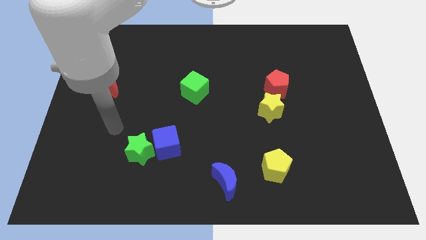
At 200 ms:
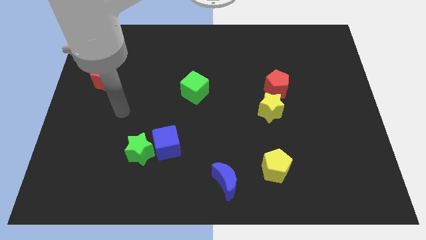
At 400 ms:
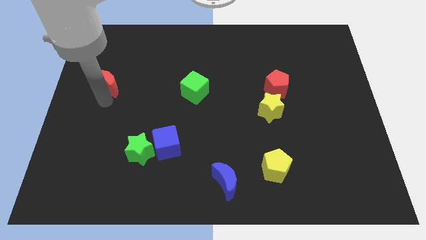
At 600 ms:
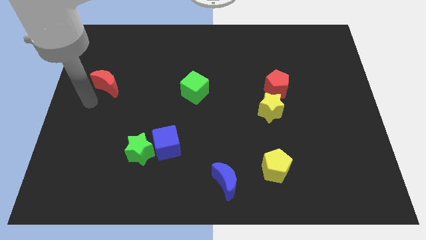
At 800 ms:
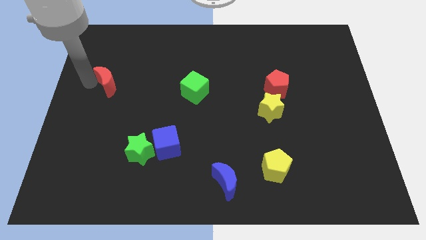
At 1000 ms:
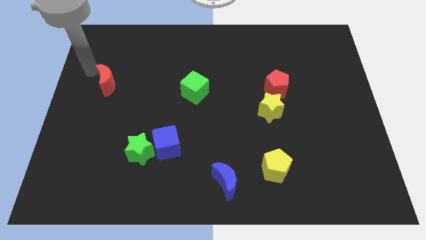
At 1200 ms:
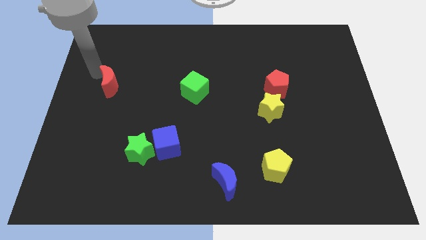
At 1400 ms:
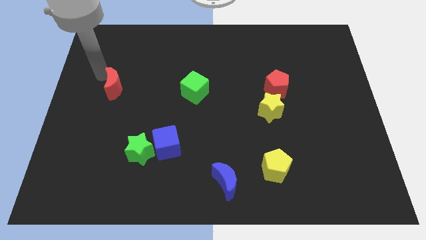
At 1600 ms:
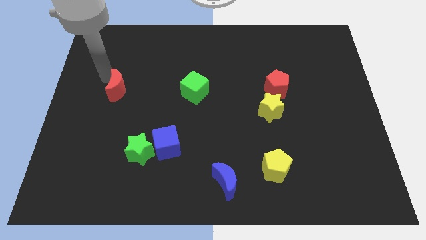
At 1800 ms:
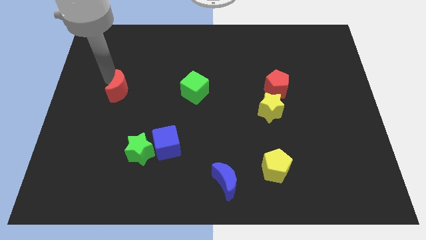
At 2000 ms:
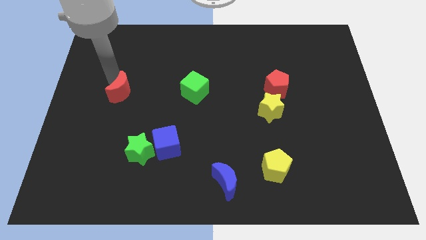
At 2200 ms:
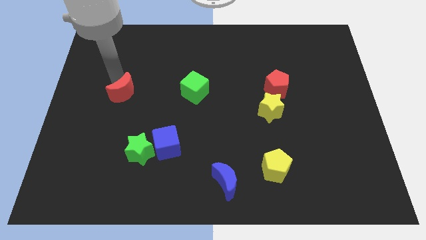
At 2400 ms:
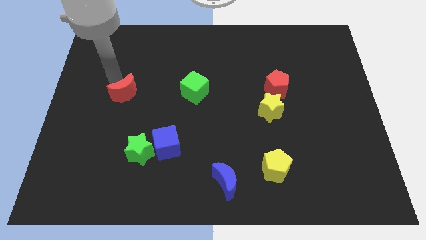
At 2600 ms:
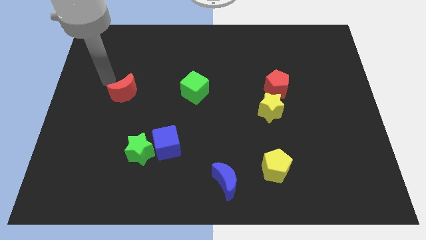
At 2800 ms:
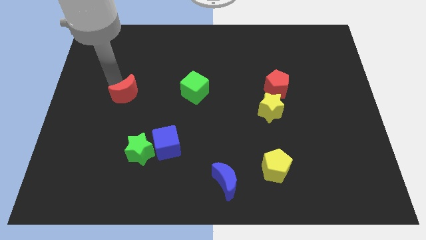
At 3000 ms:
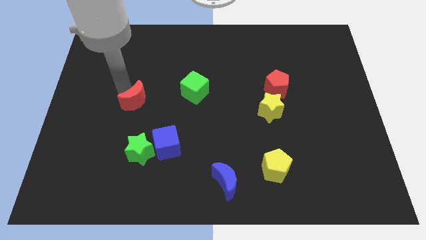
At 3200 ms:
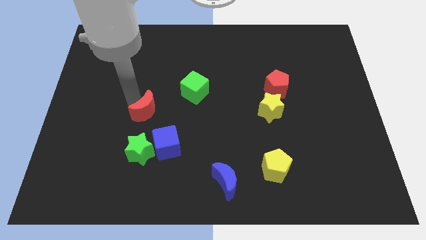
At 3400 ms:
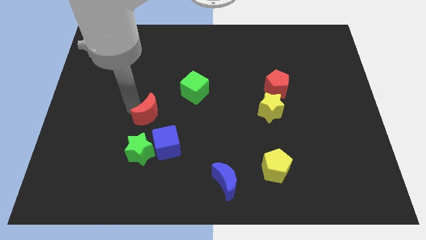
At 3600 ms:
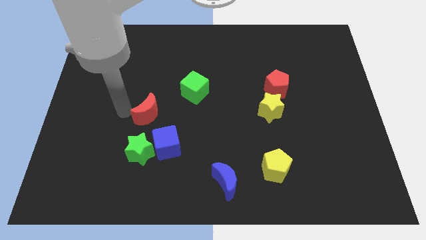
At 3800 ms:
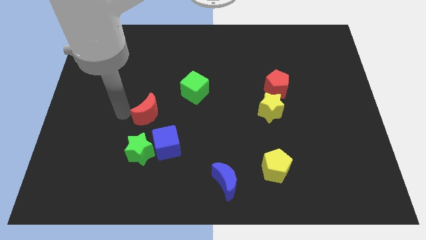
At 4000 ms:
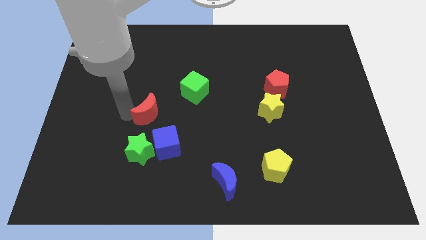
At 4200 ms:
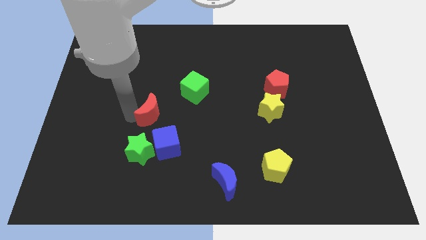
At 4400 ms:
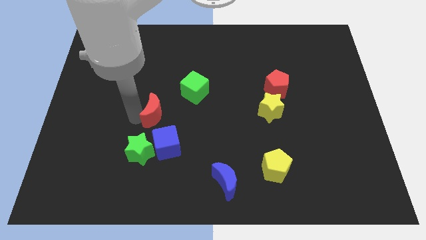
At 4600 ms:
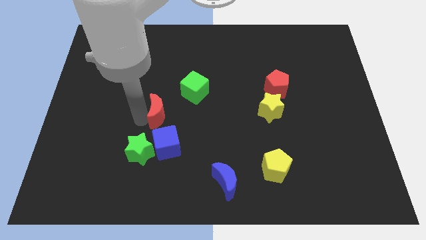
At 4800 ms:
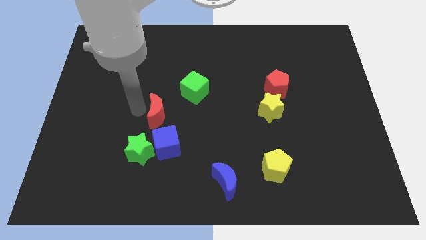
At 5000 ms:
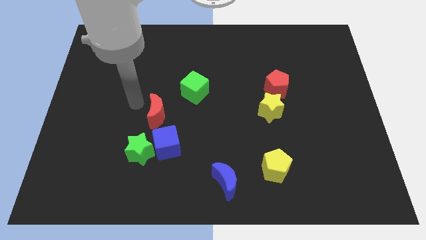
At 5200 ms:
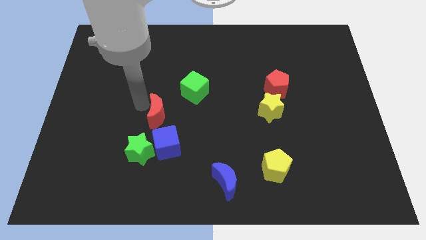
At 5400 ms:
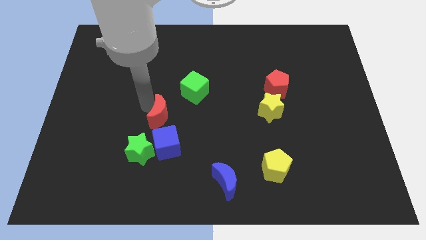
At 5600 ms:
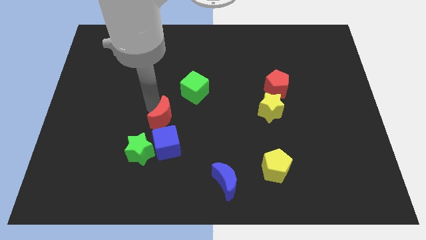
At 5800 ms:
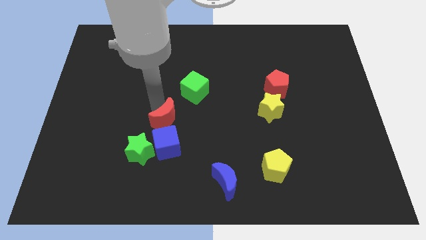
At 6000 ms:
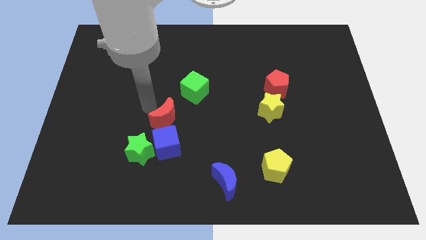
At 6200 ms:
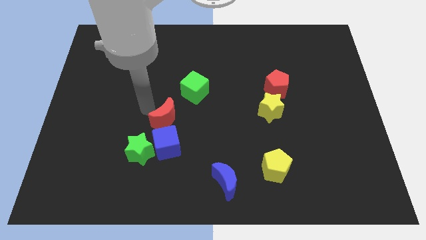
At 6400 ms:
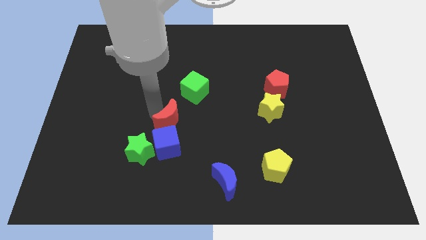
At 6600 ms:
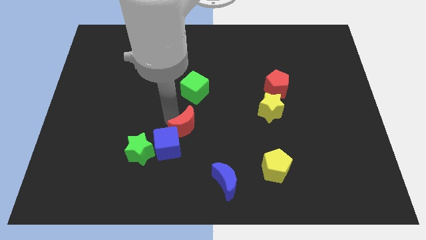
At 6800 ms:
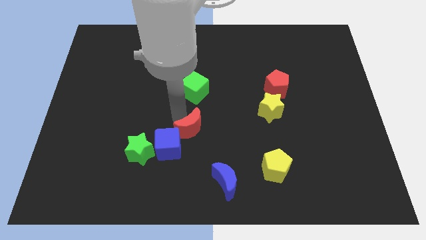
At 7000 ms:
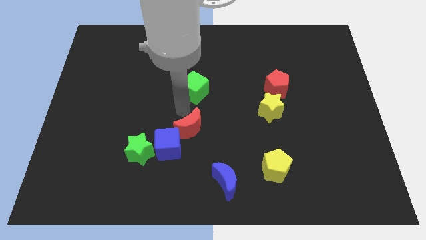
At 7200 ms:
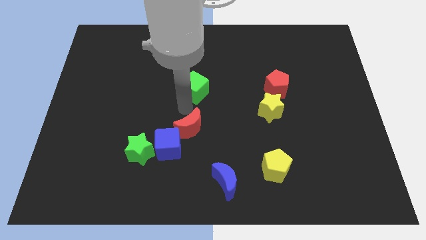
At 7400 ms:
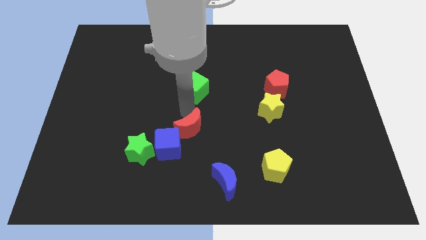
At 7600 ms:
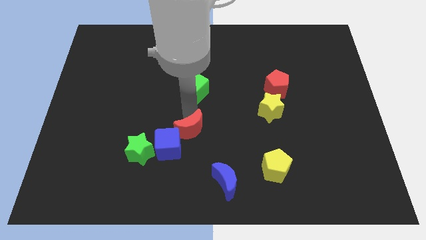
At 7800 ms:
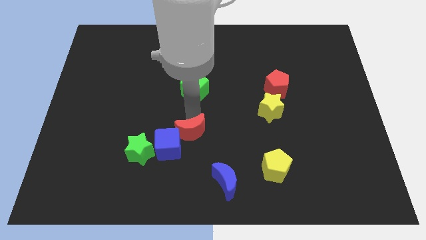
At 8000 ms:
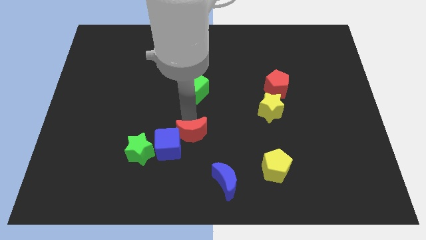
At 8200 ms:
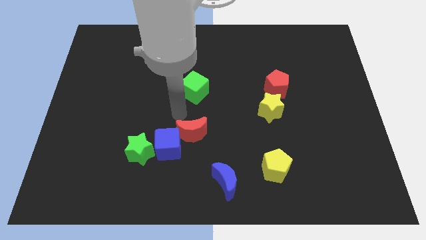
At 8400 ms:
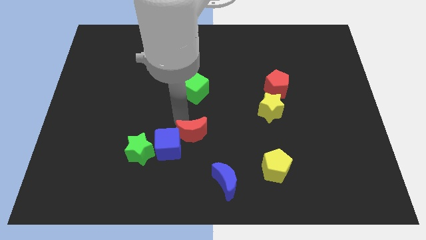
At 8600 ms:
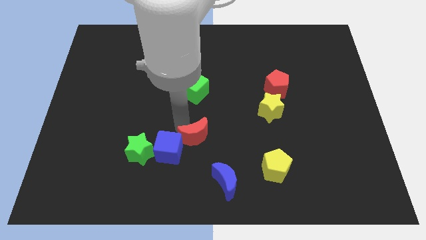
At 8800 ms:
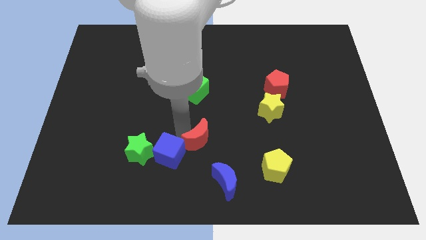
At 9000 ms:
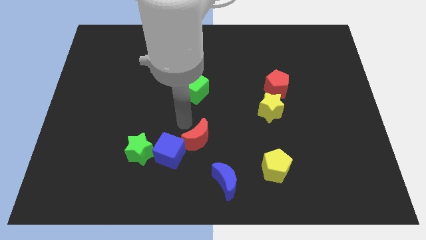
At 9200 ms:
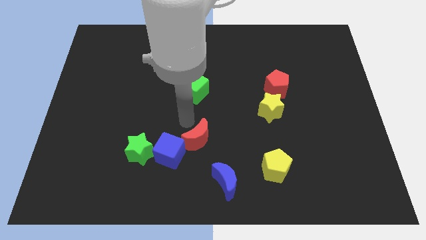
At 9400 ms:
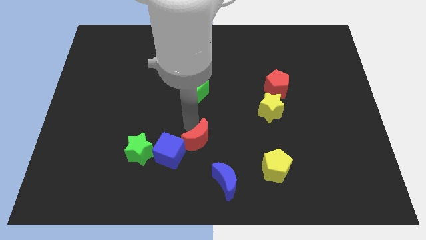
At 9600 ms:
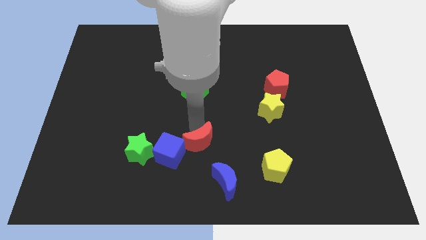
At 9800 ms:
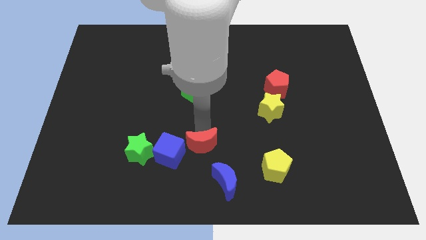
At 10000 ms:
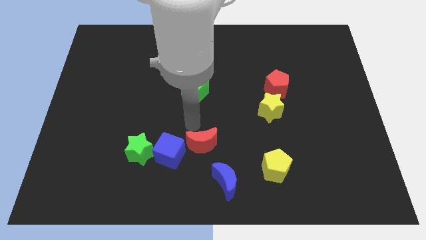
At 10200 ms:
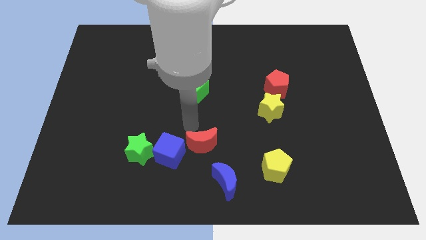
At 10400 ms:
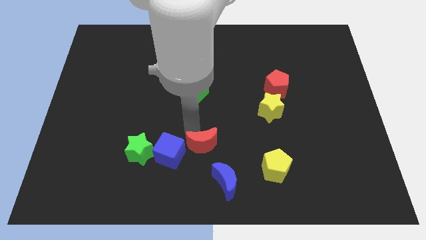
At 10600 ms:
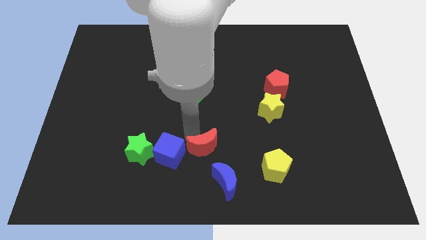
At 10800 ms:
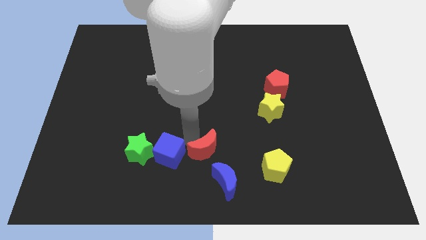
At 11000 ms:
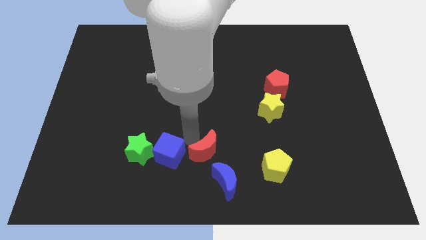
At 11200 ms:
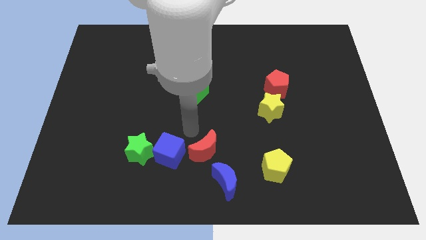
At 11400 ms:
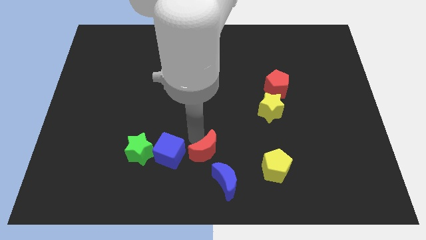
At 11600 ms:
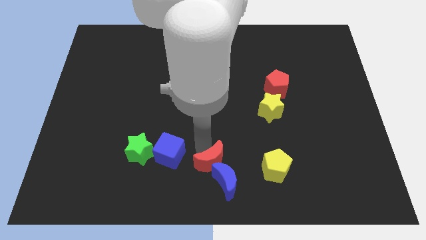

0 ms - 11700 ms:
put the red moon close to the blue moon
